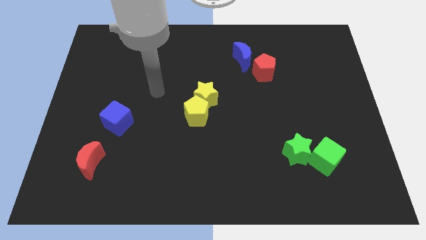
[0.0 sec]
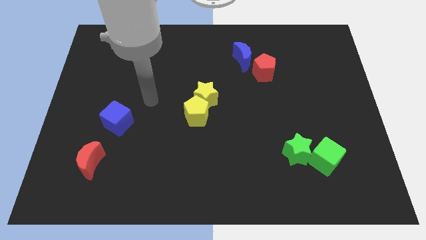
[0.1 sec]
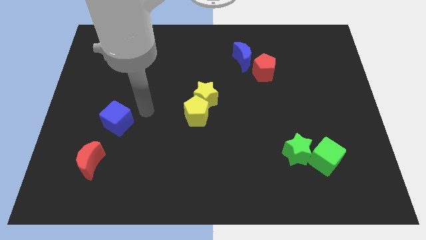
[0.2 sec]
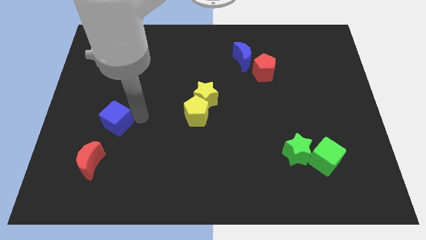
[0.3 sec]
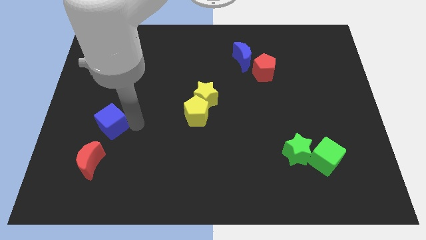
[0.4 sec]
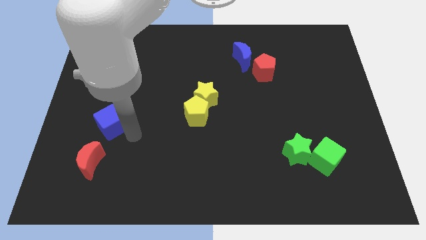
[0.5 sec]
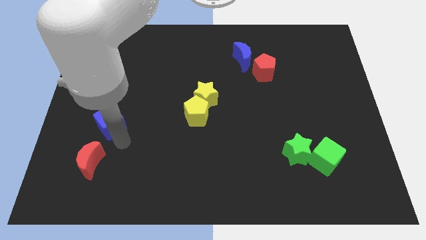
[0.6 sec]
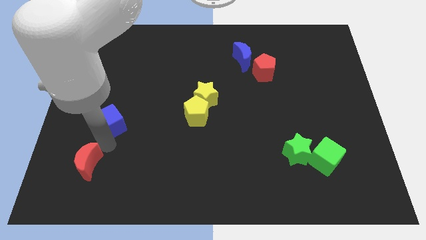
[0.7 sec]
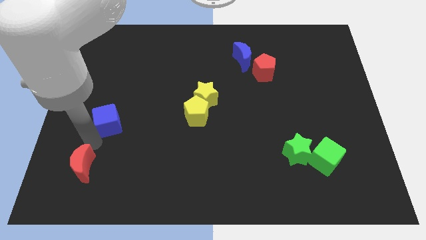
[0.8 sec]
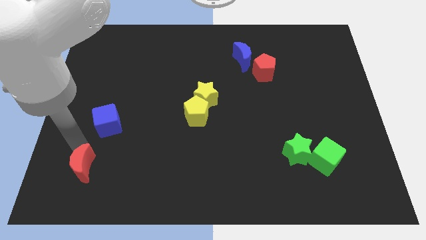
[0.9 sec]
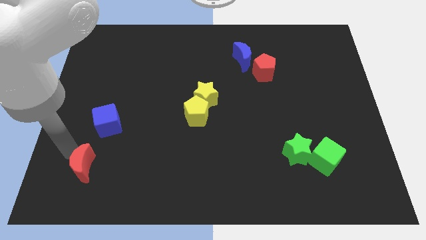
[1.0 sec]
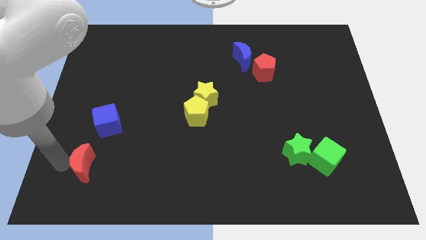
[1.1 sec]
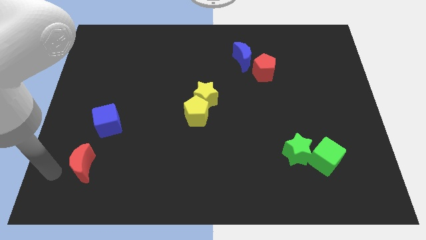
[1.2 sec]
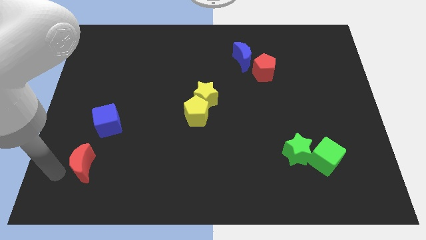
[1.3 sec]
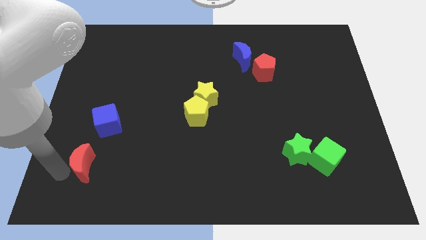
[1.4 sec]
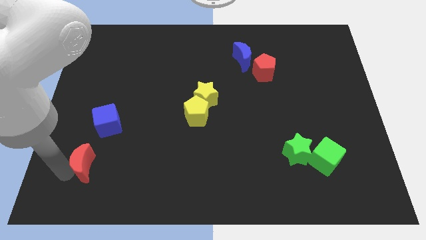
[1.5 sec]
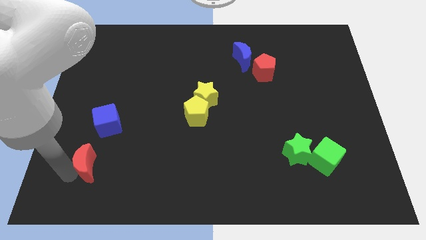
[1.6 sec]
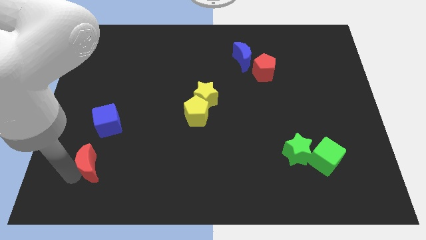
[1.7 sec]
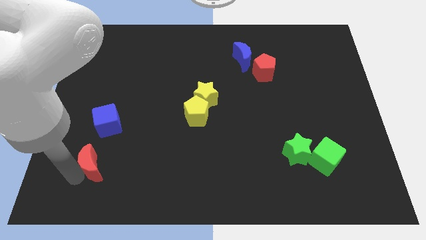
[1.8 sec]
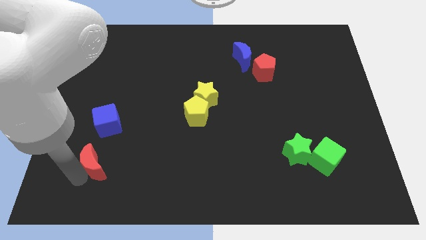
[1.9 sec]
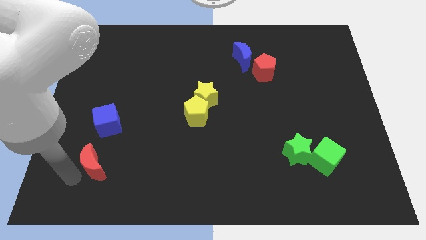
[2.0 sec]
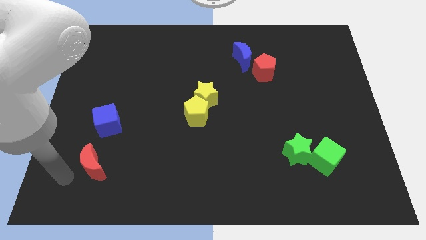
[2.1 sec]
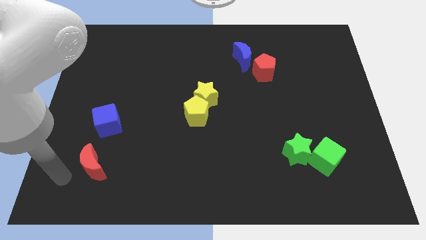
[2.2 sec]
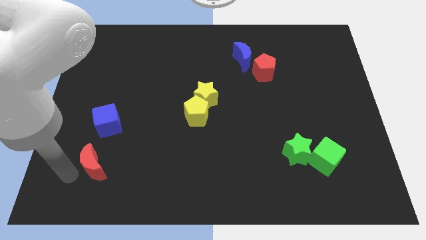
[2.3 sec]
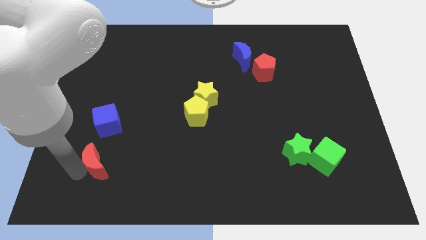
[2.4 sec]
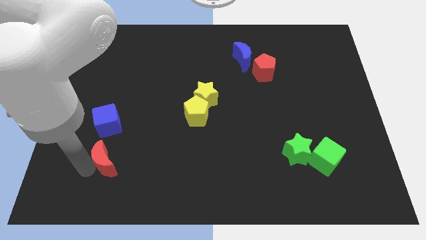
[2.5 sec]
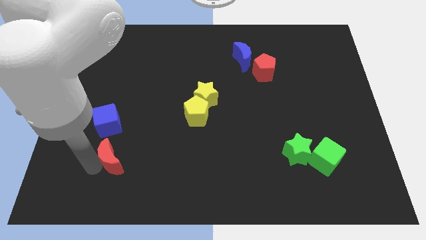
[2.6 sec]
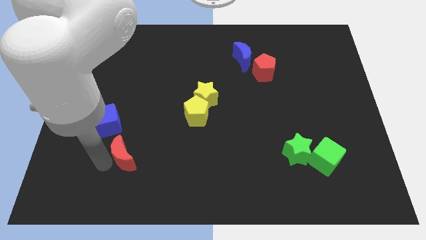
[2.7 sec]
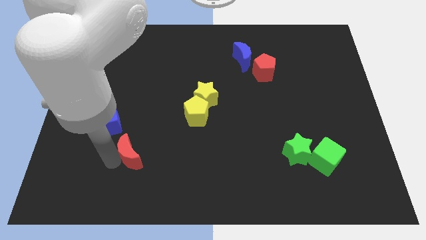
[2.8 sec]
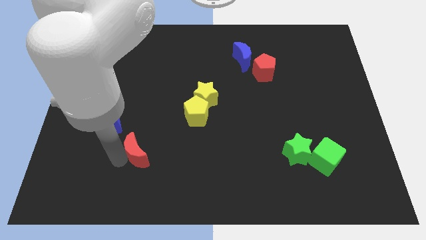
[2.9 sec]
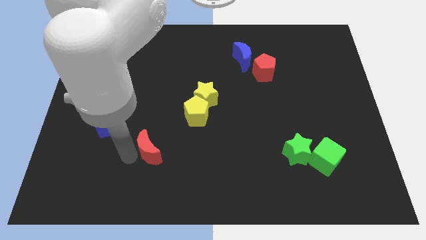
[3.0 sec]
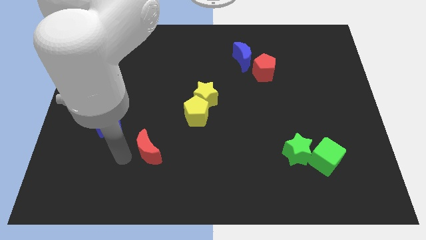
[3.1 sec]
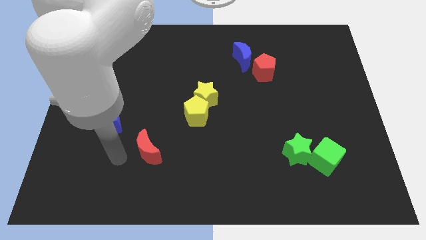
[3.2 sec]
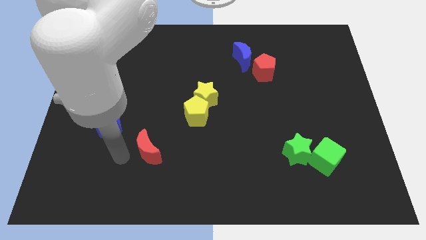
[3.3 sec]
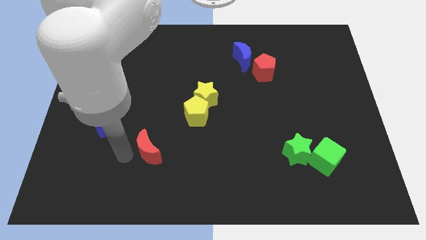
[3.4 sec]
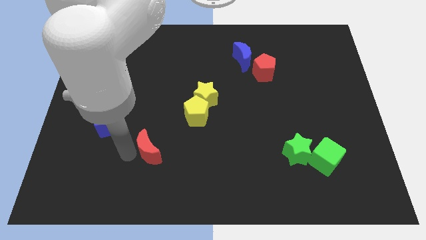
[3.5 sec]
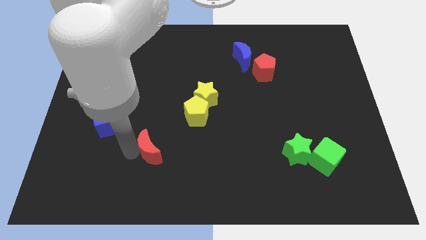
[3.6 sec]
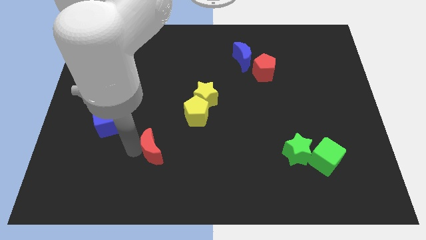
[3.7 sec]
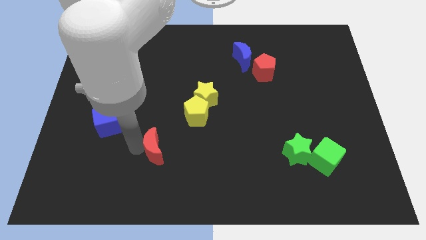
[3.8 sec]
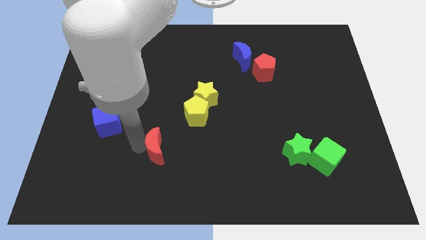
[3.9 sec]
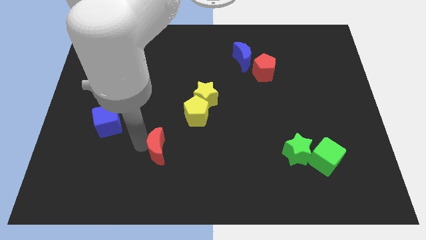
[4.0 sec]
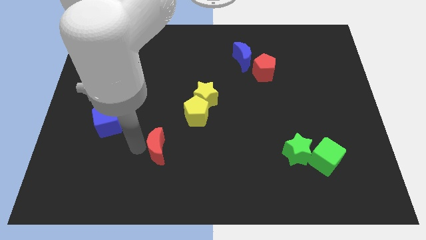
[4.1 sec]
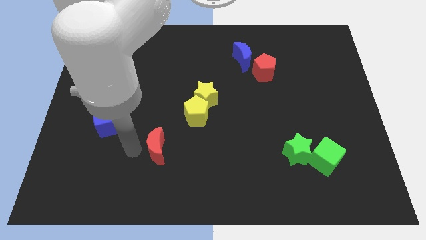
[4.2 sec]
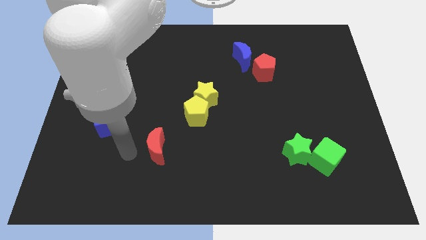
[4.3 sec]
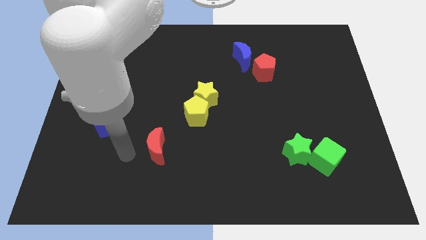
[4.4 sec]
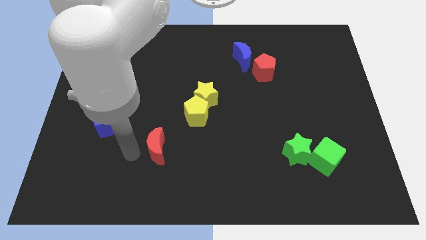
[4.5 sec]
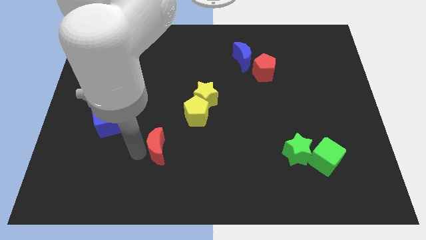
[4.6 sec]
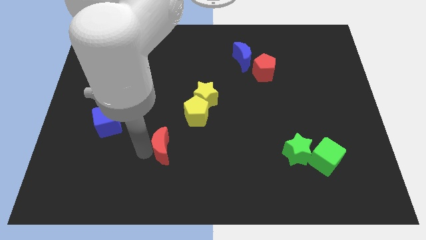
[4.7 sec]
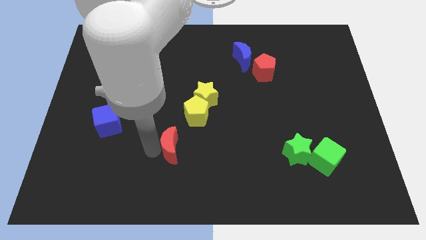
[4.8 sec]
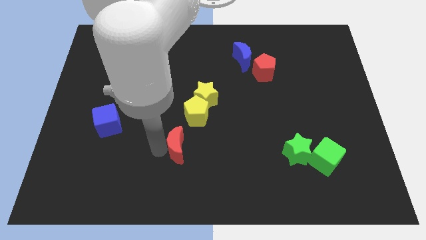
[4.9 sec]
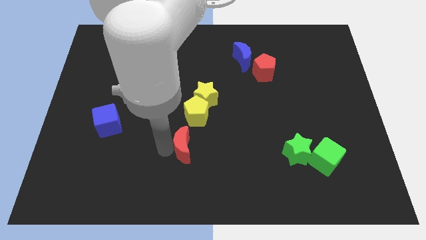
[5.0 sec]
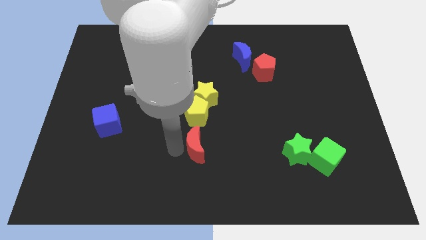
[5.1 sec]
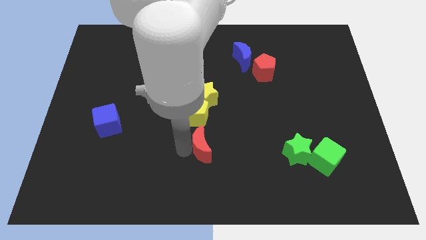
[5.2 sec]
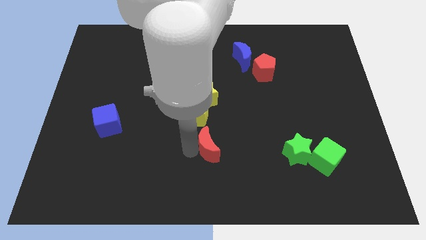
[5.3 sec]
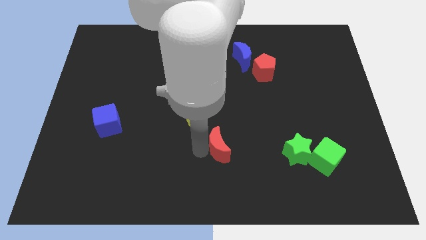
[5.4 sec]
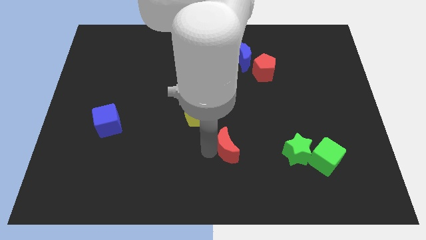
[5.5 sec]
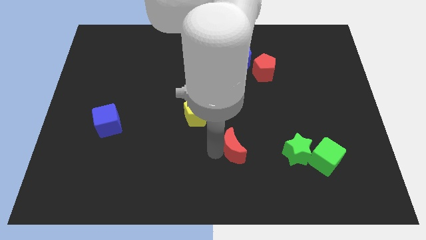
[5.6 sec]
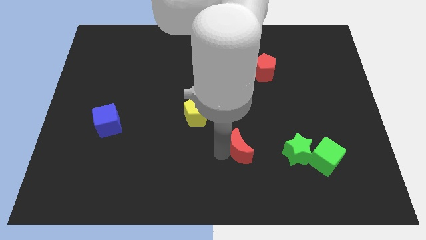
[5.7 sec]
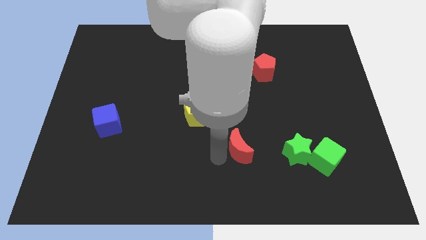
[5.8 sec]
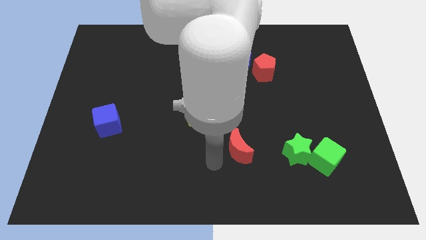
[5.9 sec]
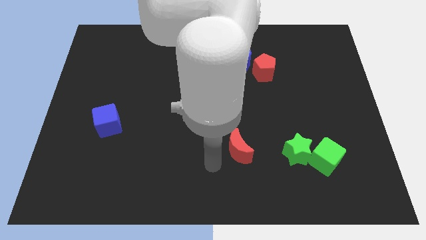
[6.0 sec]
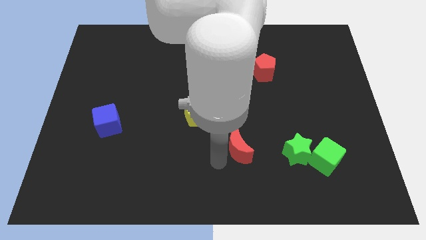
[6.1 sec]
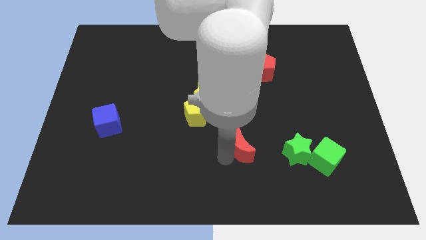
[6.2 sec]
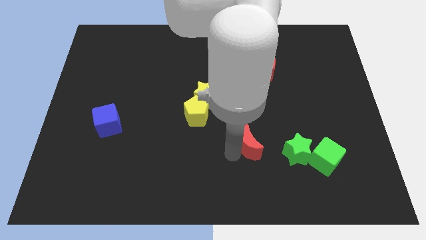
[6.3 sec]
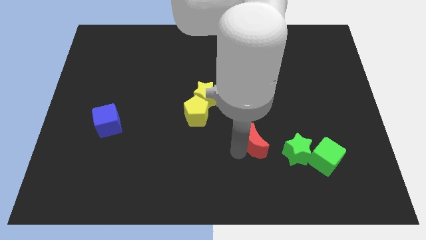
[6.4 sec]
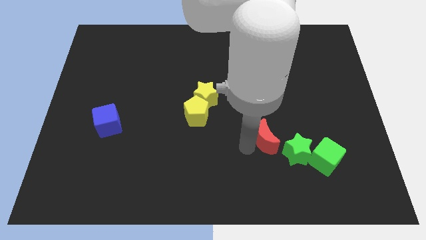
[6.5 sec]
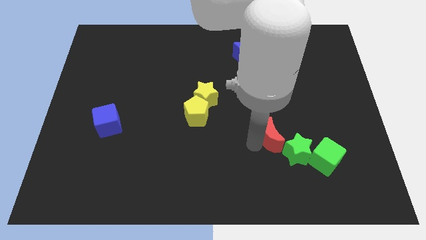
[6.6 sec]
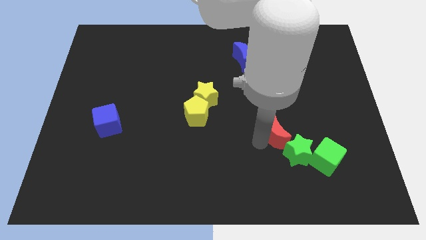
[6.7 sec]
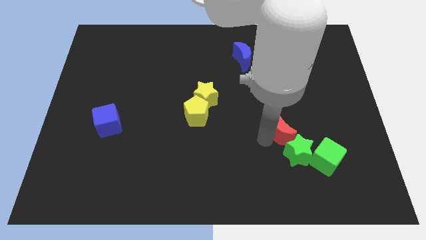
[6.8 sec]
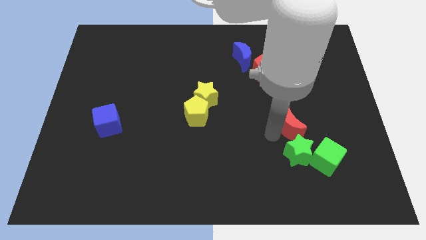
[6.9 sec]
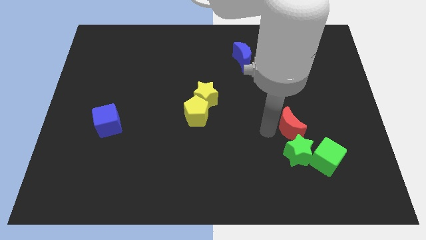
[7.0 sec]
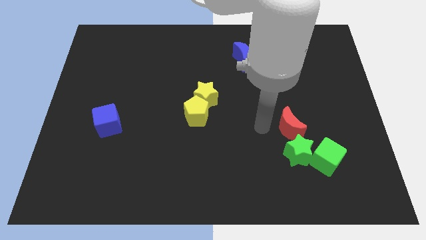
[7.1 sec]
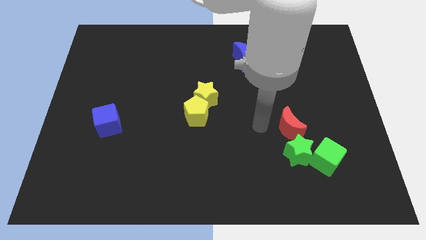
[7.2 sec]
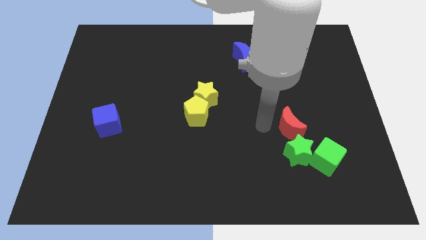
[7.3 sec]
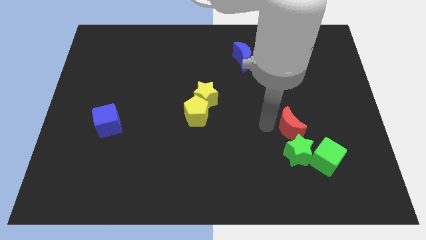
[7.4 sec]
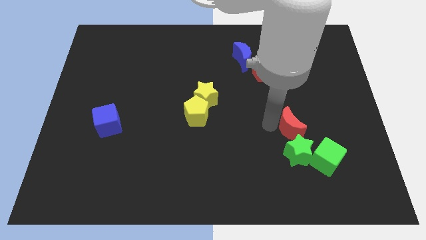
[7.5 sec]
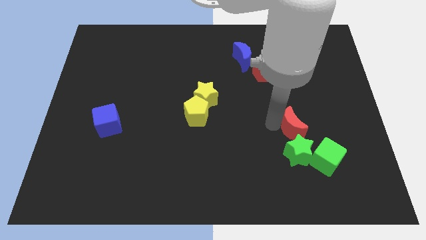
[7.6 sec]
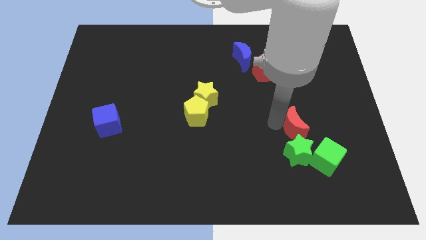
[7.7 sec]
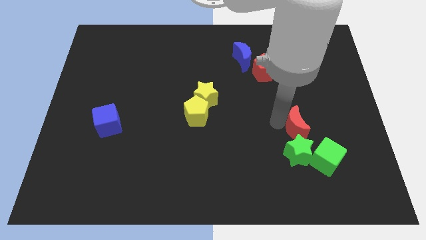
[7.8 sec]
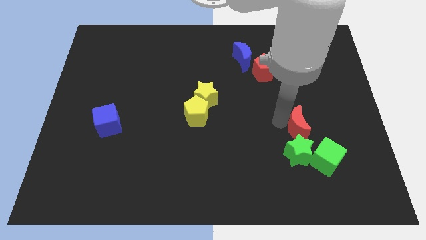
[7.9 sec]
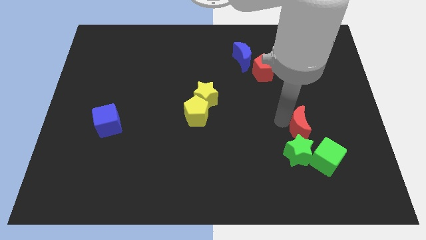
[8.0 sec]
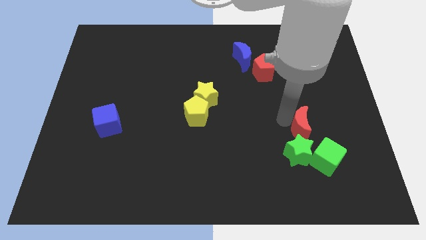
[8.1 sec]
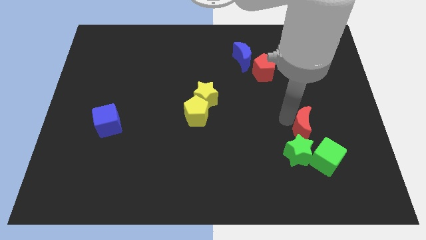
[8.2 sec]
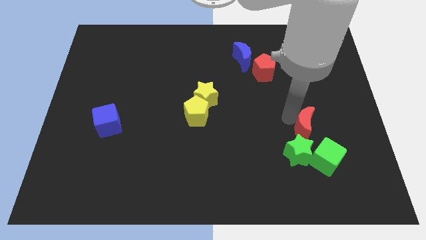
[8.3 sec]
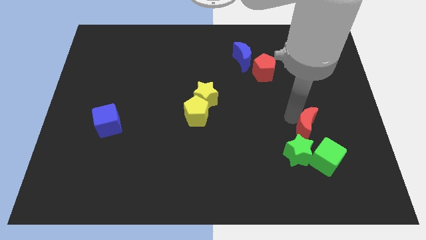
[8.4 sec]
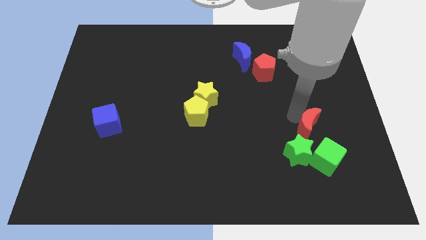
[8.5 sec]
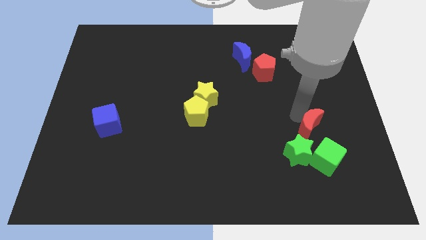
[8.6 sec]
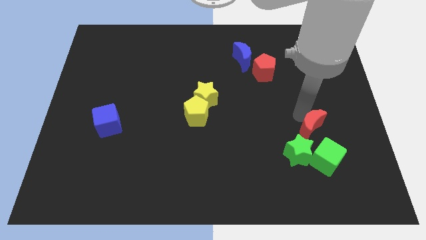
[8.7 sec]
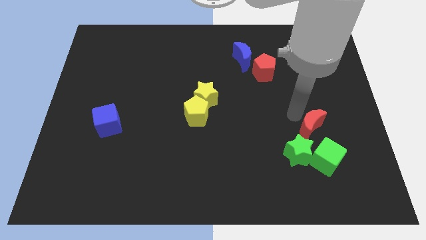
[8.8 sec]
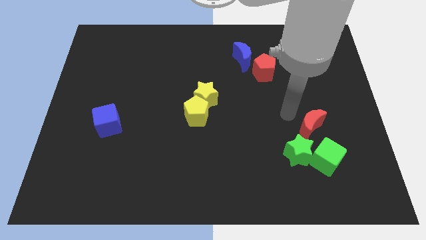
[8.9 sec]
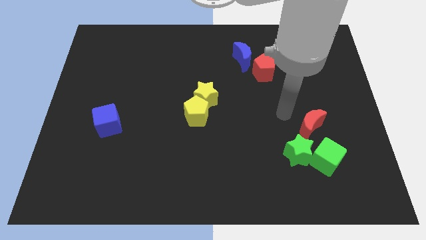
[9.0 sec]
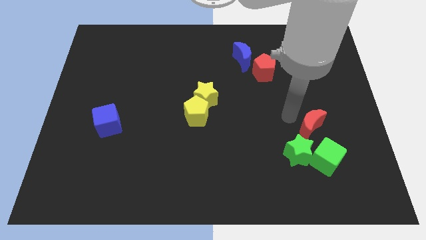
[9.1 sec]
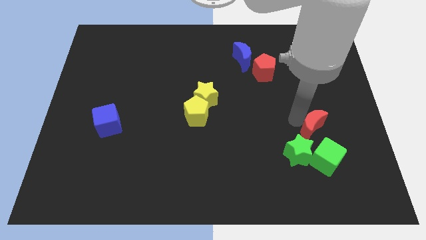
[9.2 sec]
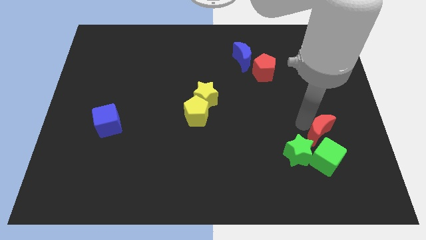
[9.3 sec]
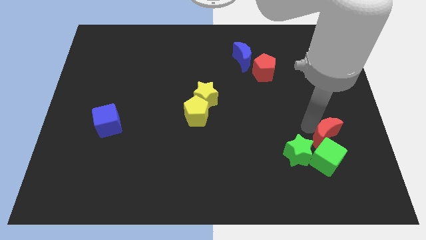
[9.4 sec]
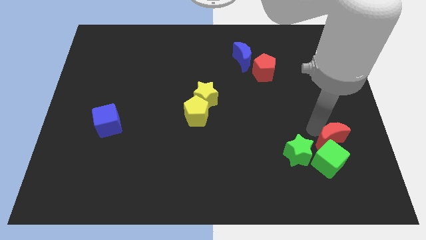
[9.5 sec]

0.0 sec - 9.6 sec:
move the red moon to the right of the green star
